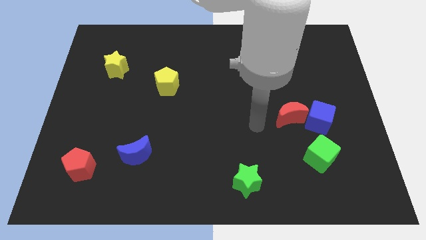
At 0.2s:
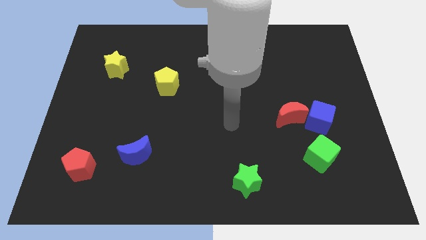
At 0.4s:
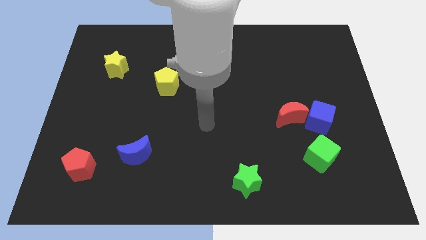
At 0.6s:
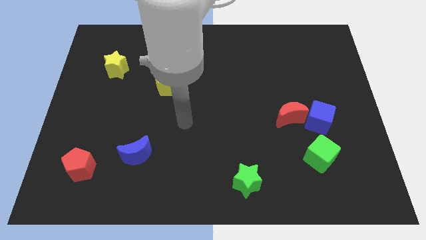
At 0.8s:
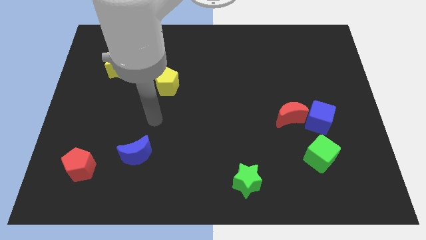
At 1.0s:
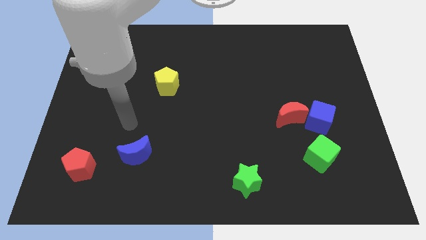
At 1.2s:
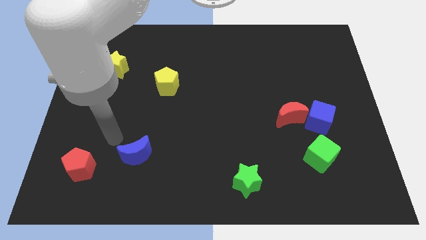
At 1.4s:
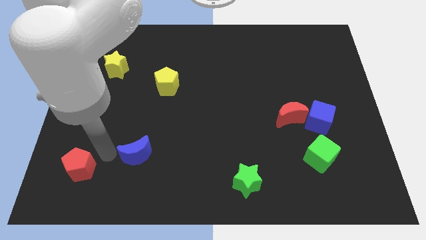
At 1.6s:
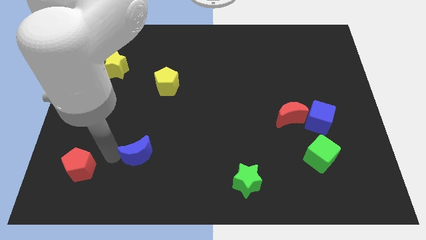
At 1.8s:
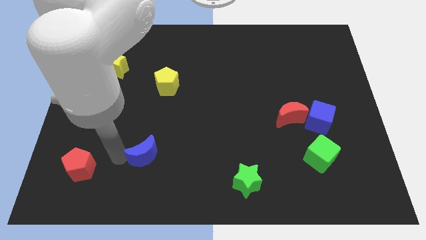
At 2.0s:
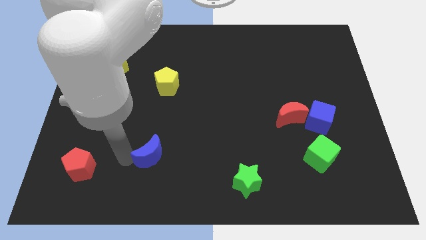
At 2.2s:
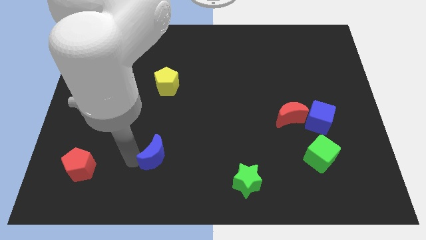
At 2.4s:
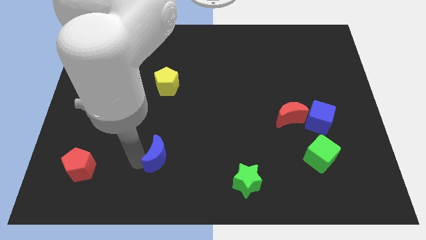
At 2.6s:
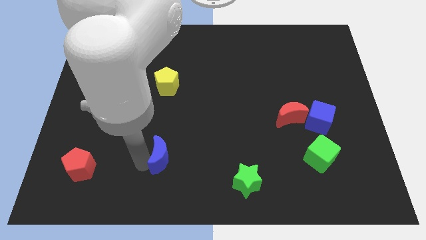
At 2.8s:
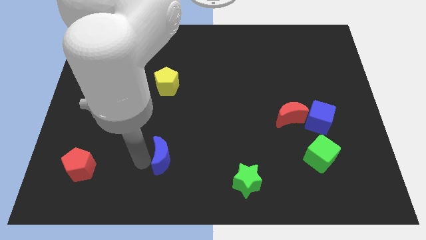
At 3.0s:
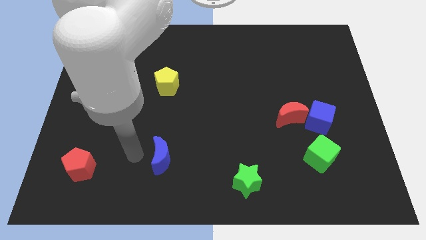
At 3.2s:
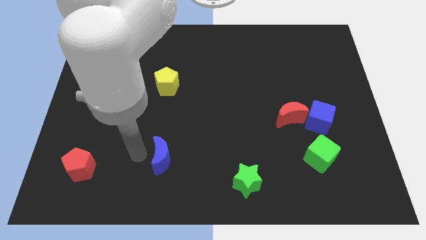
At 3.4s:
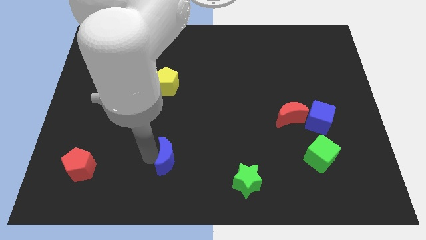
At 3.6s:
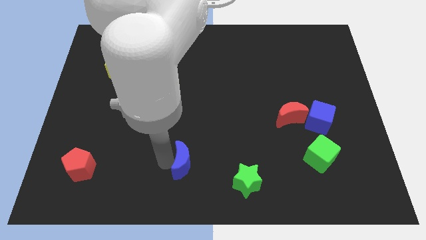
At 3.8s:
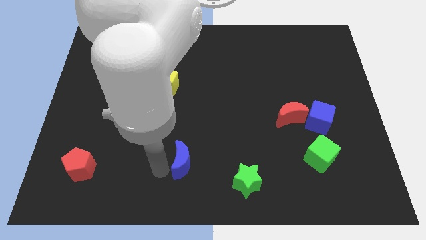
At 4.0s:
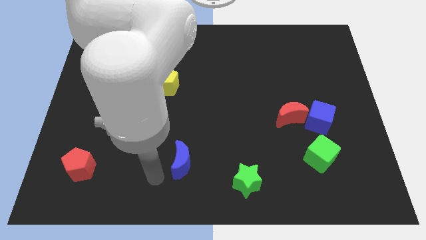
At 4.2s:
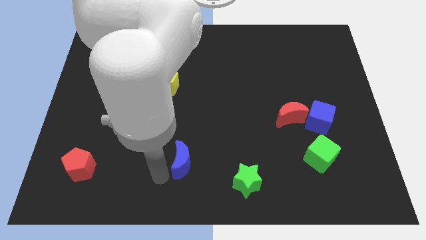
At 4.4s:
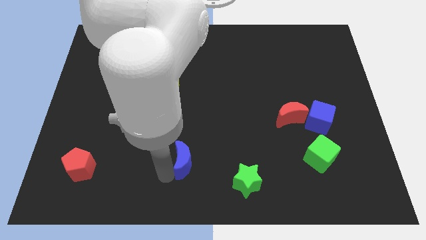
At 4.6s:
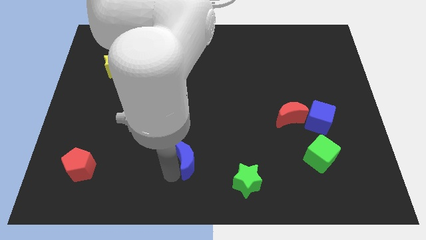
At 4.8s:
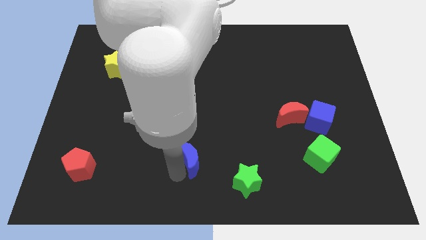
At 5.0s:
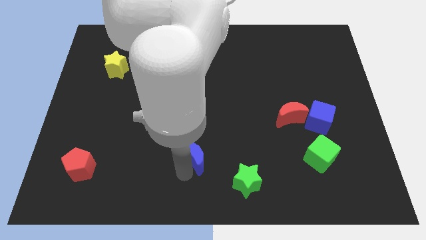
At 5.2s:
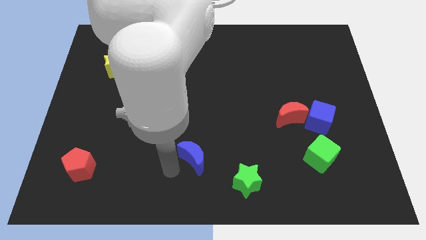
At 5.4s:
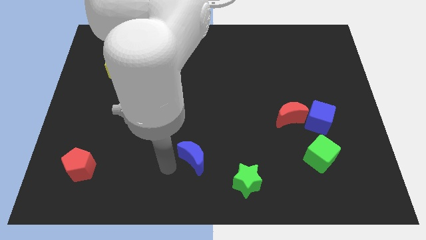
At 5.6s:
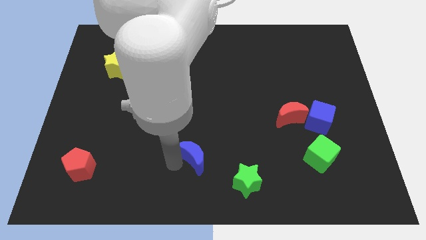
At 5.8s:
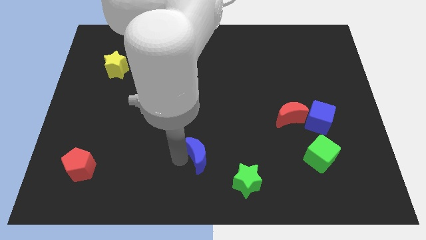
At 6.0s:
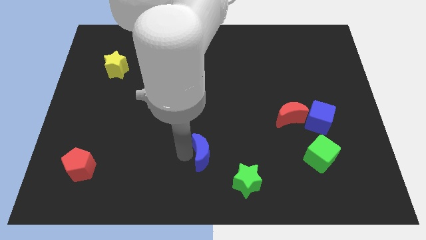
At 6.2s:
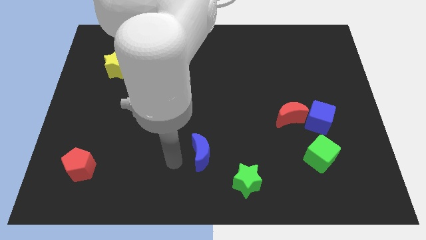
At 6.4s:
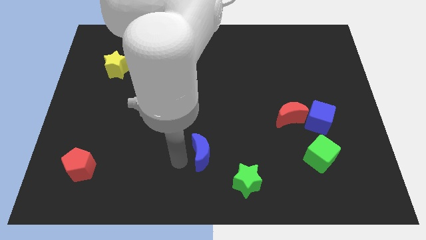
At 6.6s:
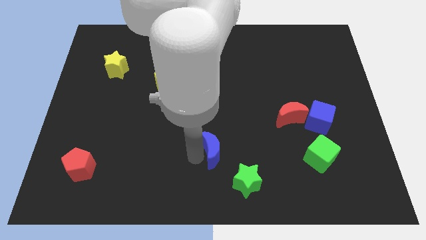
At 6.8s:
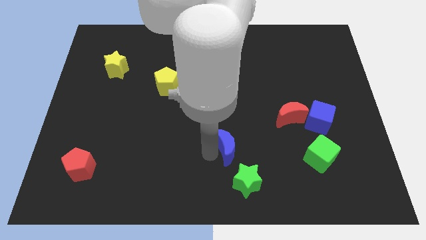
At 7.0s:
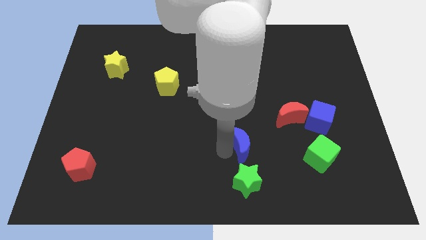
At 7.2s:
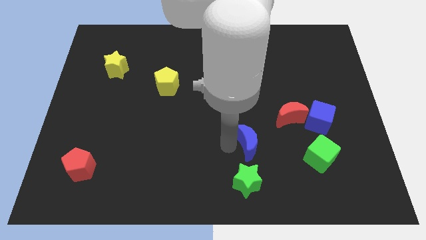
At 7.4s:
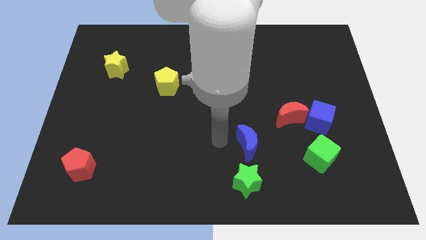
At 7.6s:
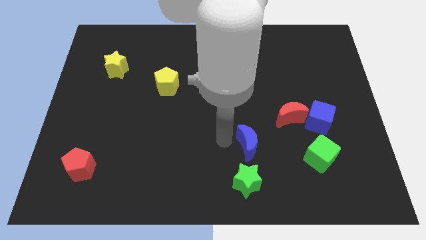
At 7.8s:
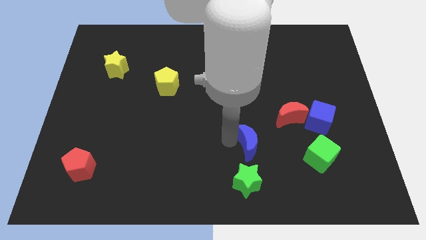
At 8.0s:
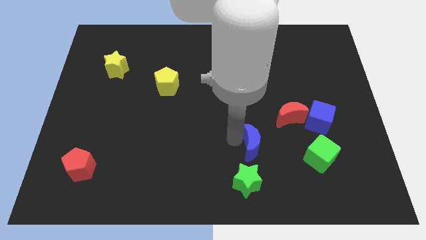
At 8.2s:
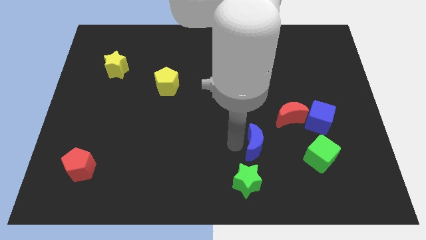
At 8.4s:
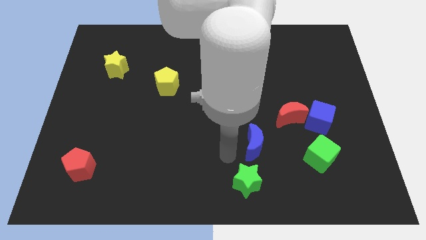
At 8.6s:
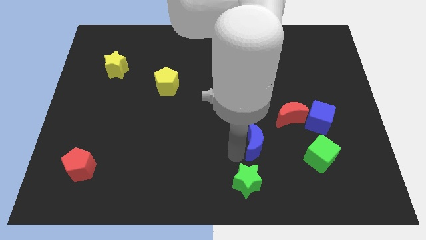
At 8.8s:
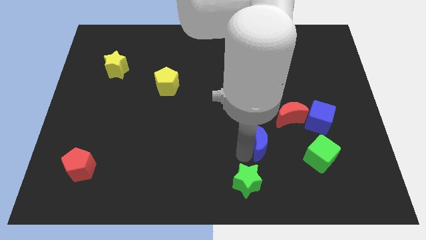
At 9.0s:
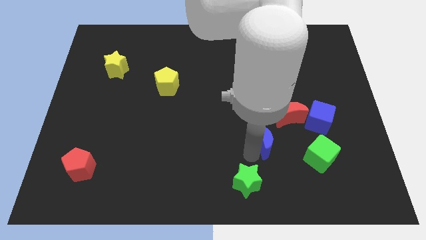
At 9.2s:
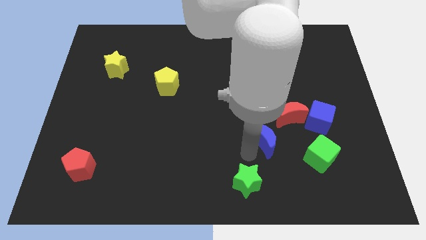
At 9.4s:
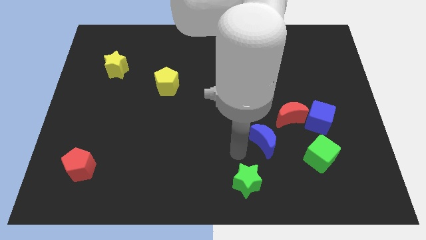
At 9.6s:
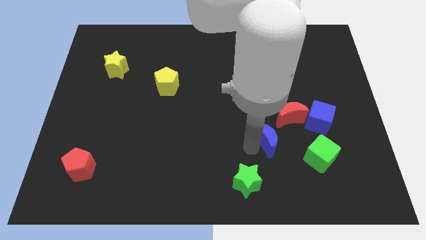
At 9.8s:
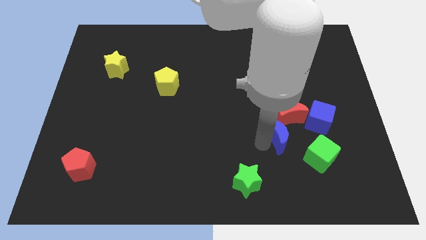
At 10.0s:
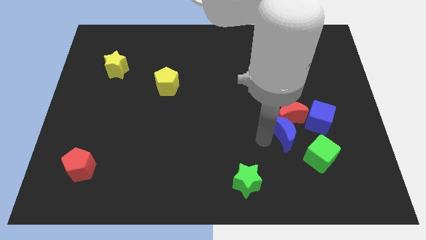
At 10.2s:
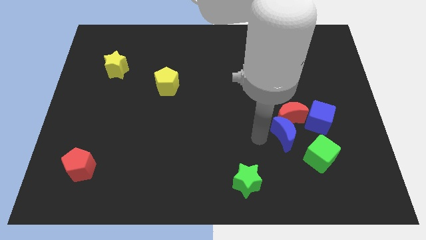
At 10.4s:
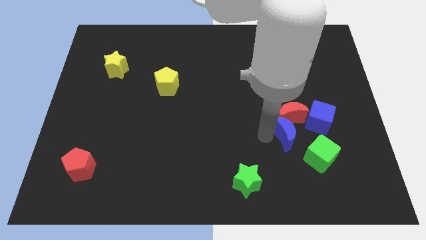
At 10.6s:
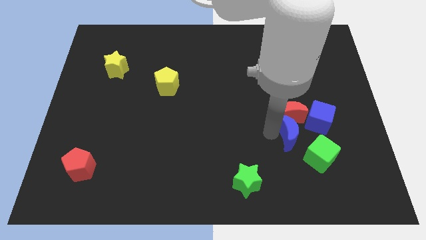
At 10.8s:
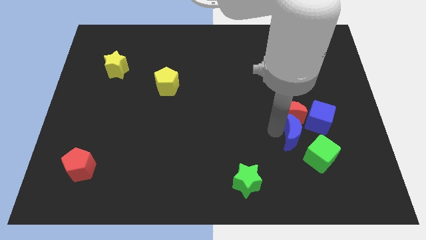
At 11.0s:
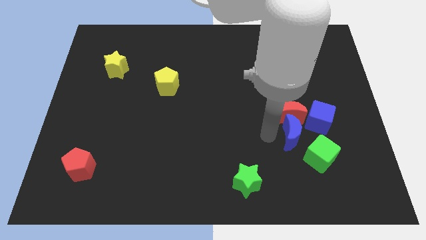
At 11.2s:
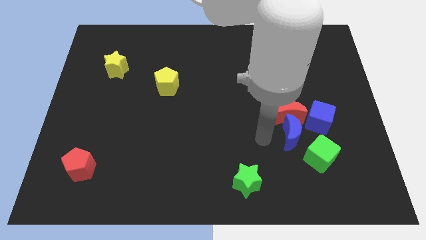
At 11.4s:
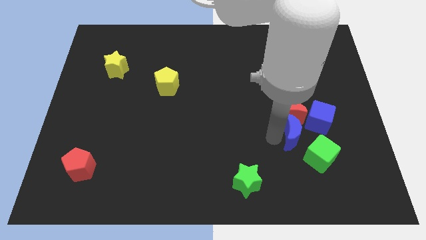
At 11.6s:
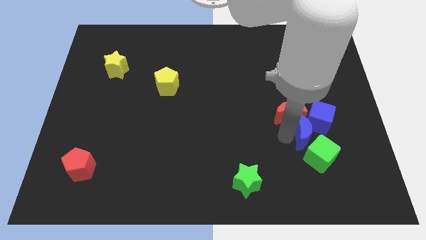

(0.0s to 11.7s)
push the blue moon next to the blue cube

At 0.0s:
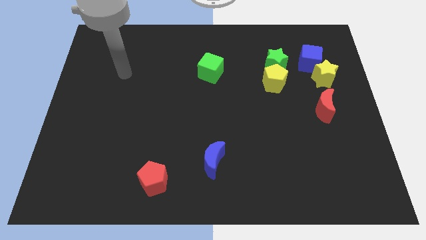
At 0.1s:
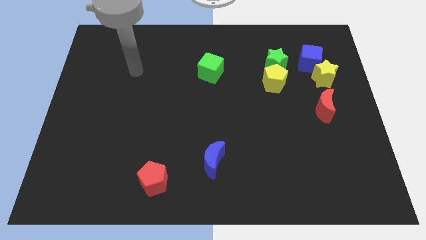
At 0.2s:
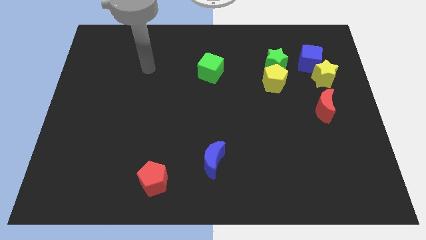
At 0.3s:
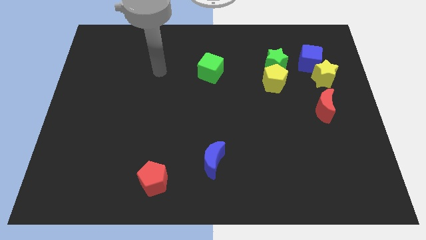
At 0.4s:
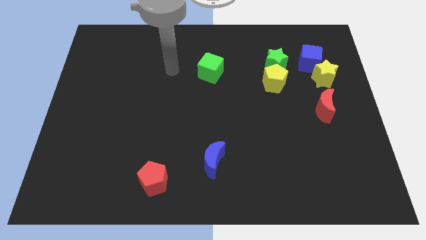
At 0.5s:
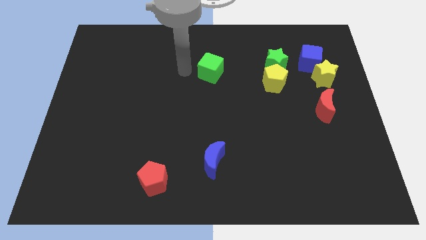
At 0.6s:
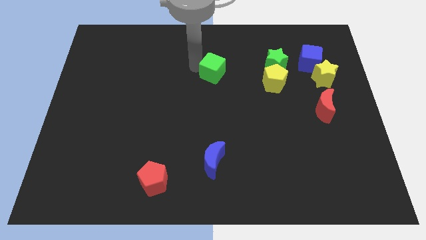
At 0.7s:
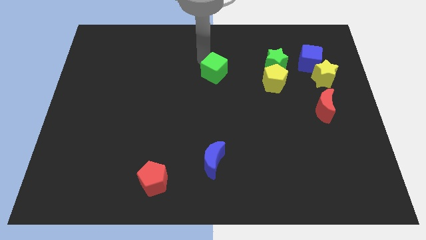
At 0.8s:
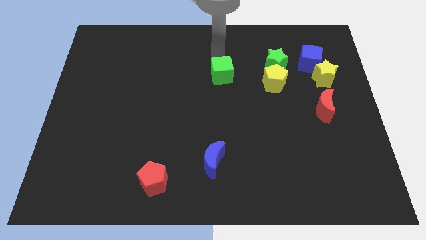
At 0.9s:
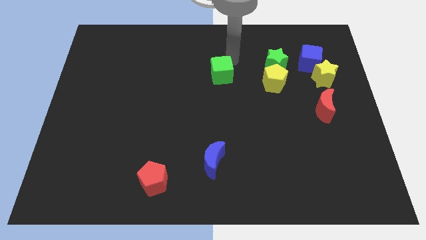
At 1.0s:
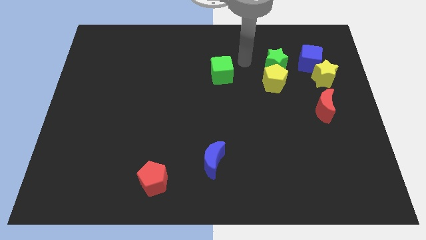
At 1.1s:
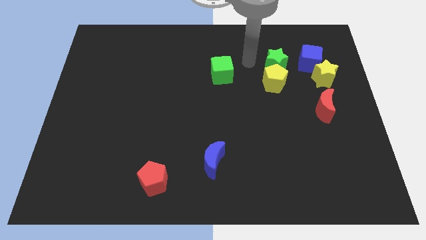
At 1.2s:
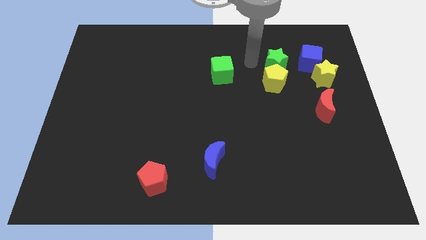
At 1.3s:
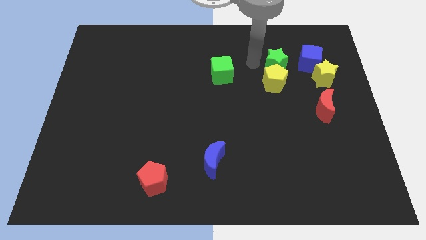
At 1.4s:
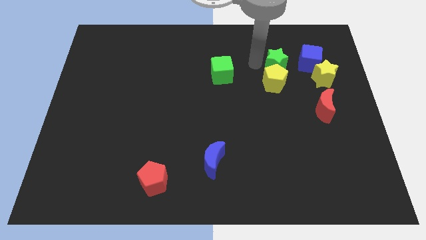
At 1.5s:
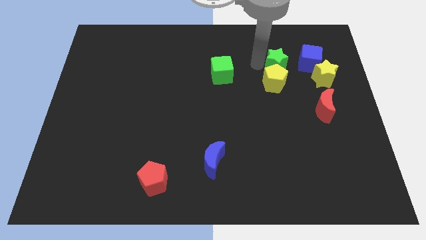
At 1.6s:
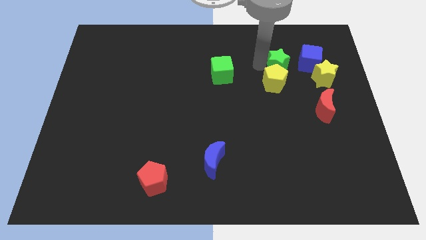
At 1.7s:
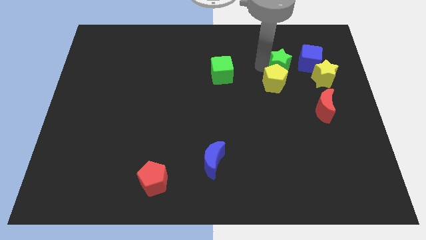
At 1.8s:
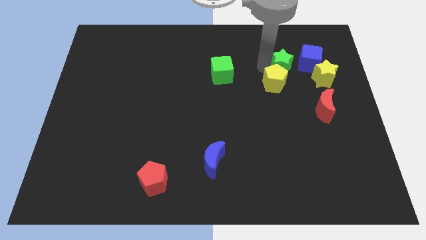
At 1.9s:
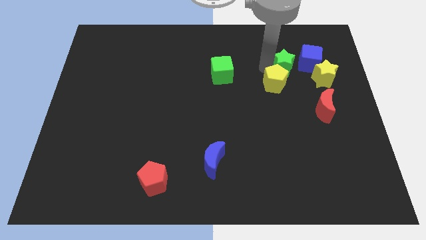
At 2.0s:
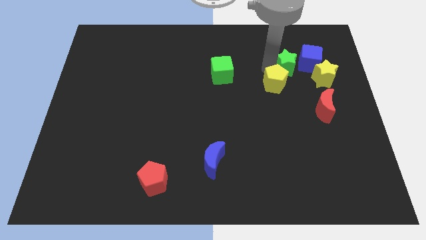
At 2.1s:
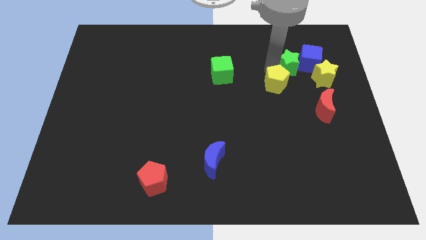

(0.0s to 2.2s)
slide the green star towards the blue cube
